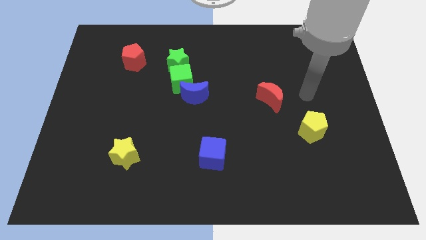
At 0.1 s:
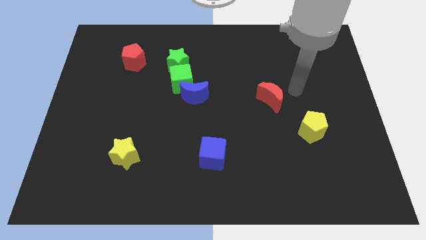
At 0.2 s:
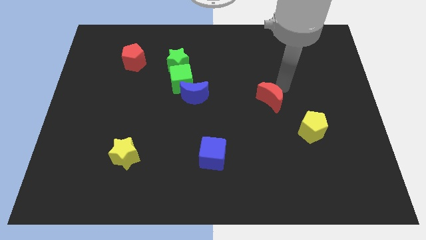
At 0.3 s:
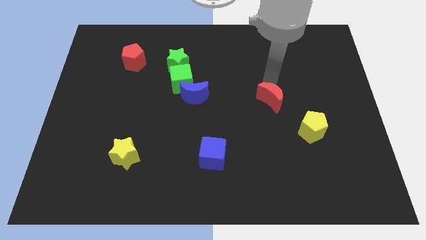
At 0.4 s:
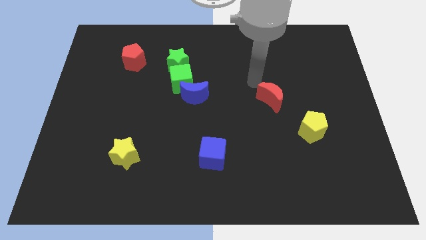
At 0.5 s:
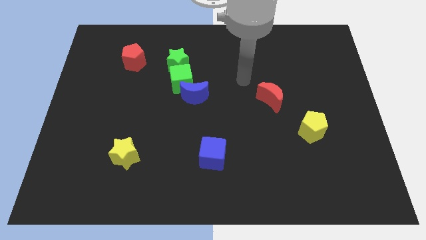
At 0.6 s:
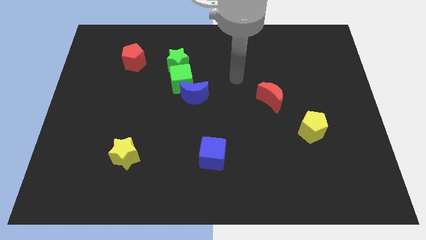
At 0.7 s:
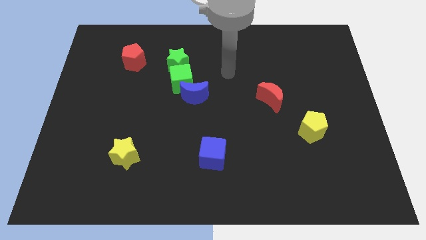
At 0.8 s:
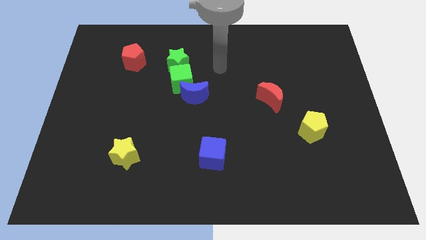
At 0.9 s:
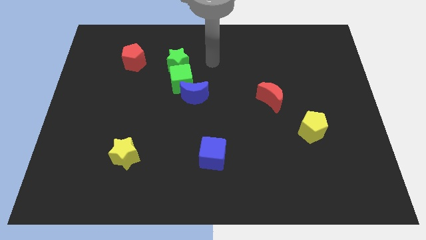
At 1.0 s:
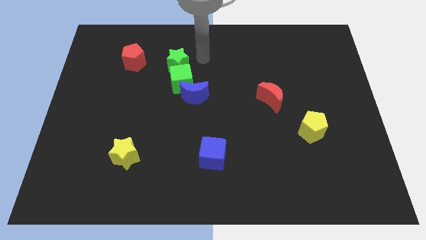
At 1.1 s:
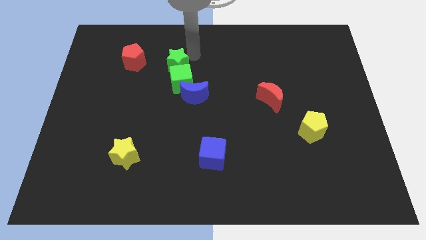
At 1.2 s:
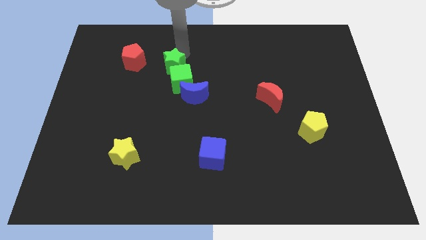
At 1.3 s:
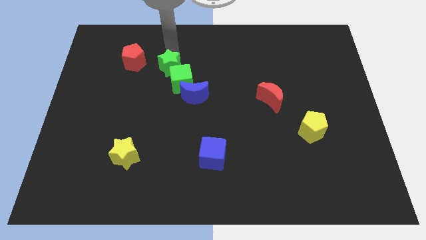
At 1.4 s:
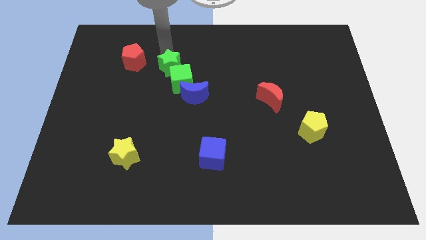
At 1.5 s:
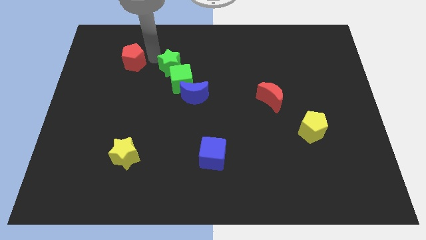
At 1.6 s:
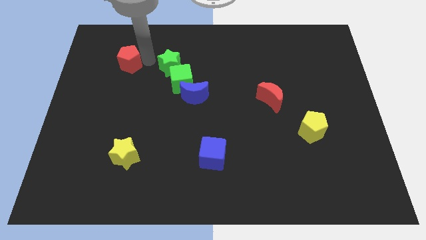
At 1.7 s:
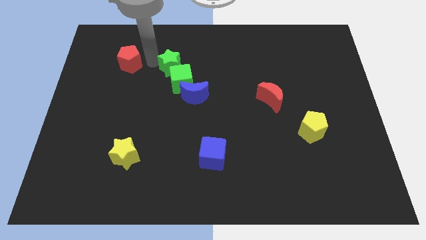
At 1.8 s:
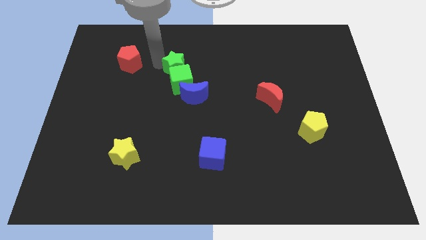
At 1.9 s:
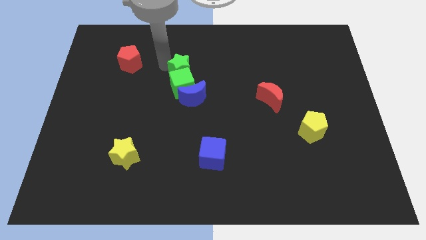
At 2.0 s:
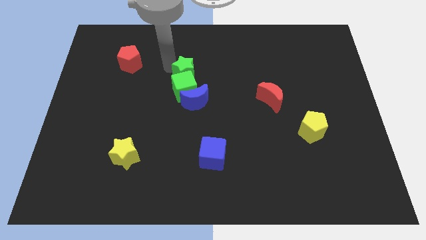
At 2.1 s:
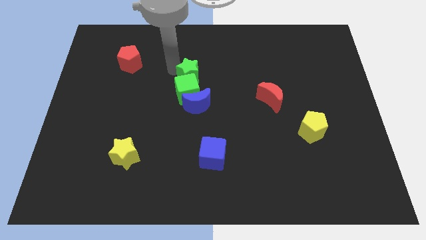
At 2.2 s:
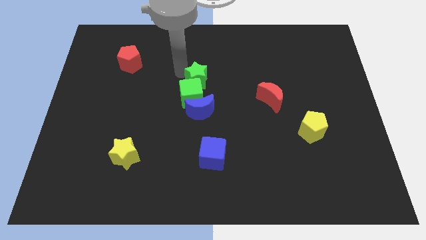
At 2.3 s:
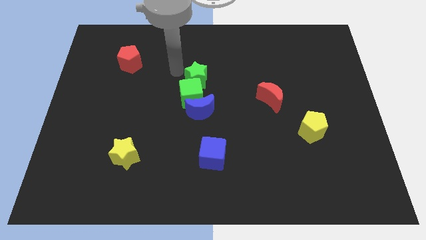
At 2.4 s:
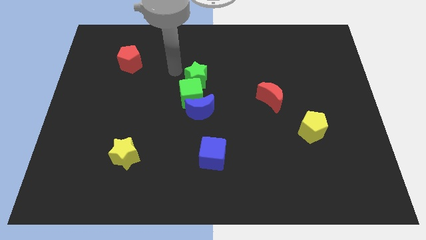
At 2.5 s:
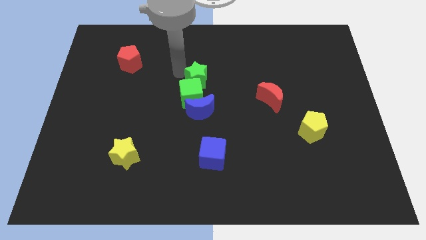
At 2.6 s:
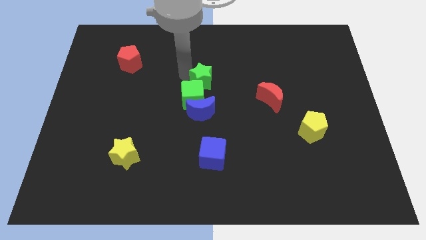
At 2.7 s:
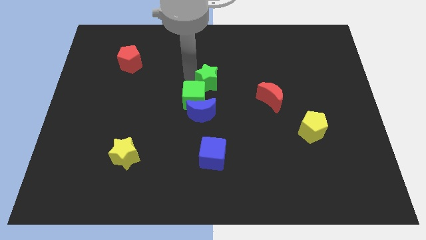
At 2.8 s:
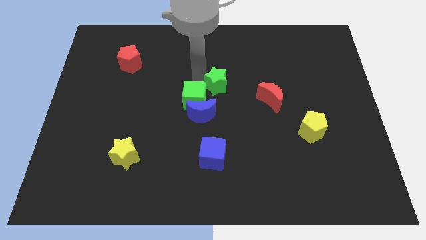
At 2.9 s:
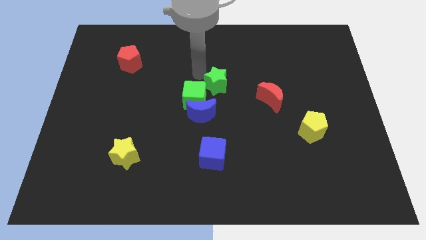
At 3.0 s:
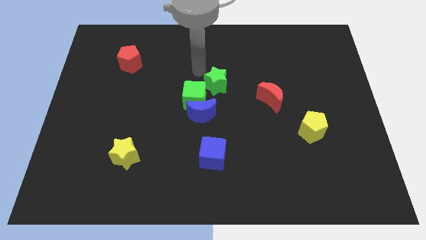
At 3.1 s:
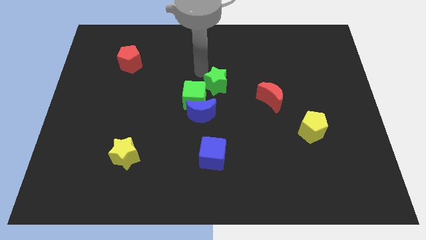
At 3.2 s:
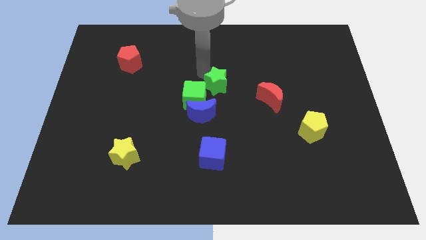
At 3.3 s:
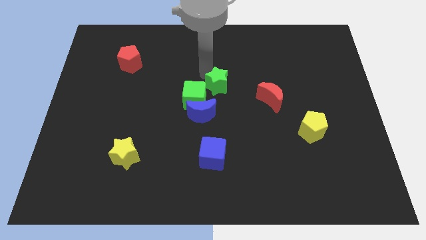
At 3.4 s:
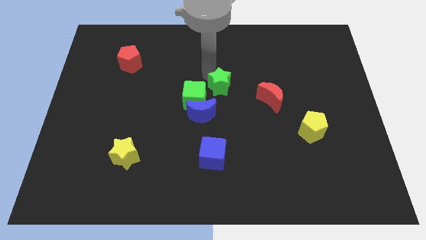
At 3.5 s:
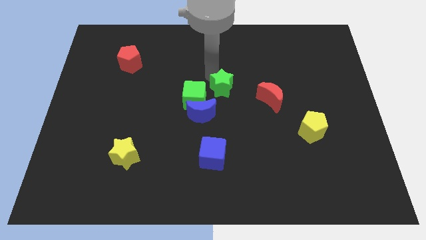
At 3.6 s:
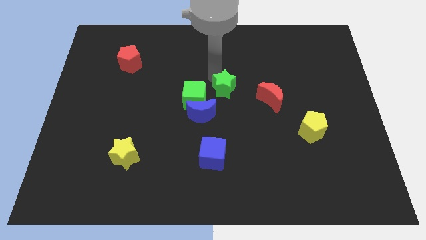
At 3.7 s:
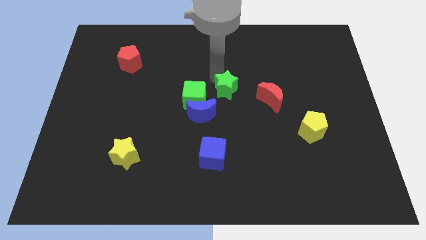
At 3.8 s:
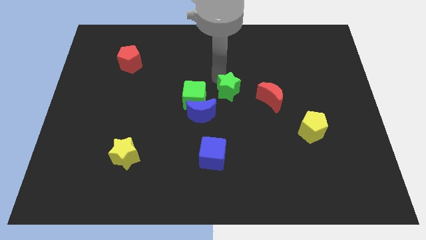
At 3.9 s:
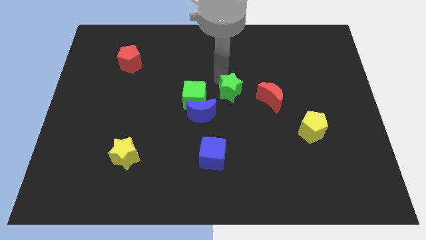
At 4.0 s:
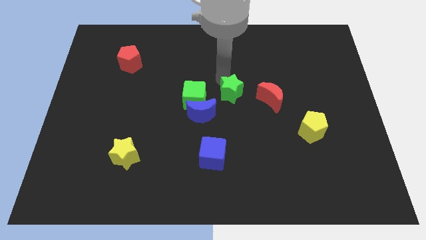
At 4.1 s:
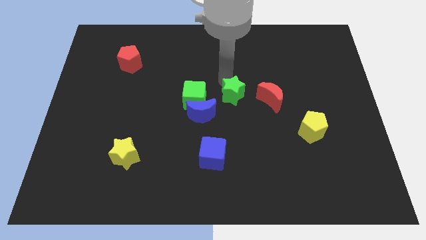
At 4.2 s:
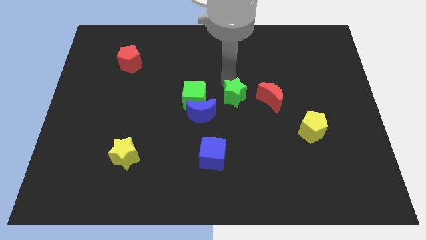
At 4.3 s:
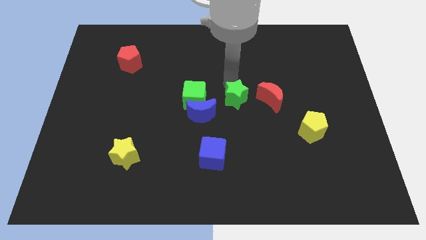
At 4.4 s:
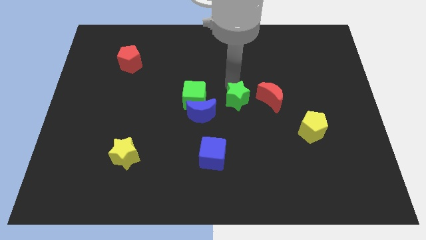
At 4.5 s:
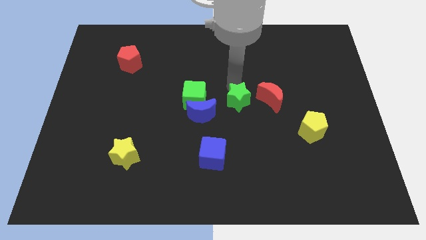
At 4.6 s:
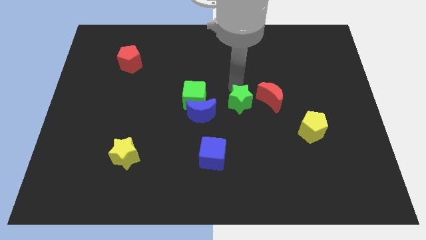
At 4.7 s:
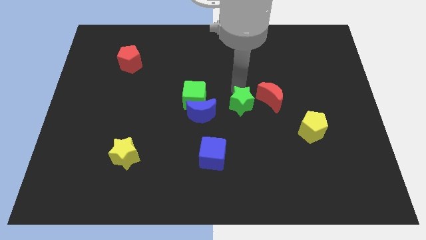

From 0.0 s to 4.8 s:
move the green star diagonally downwards and right

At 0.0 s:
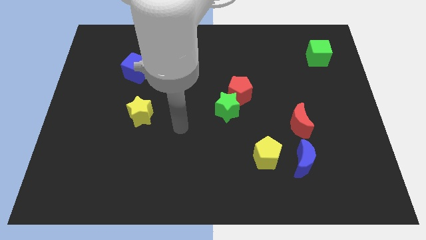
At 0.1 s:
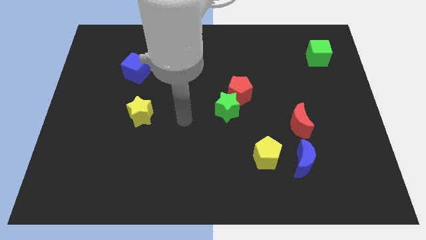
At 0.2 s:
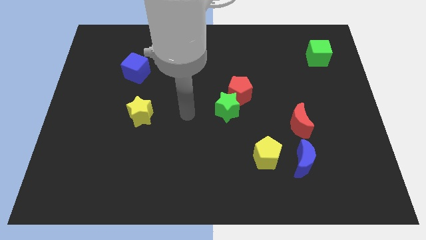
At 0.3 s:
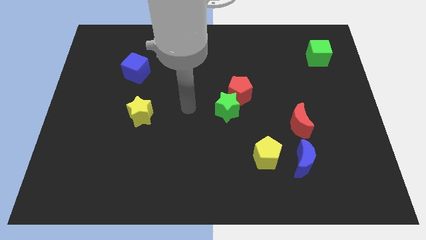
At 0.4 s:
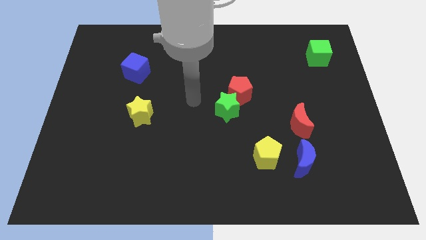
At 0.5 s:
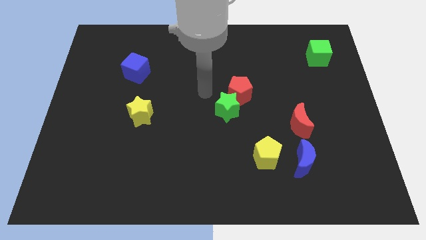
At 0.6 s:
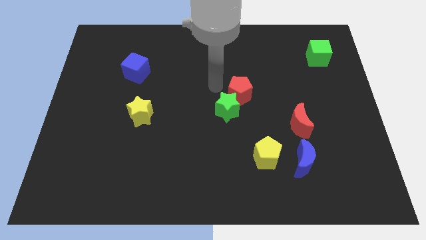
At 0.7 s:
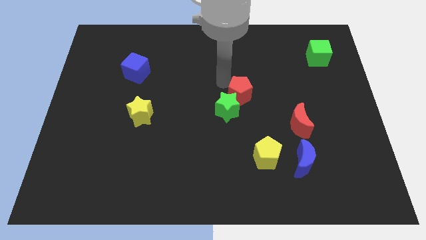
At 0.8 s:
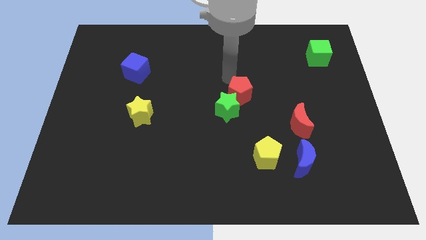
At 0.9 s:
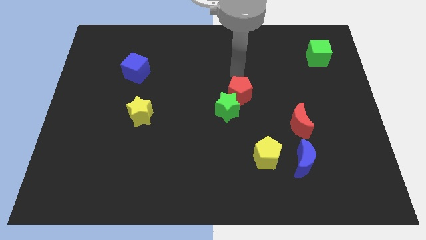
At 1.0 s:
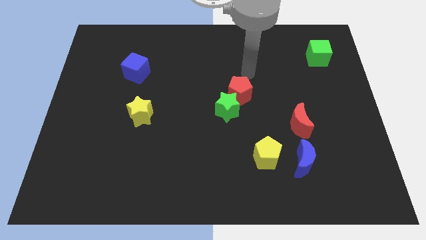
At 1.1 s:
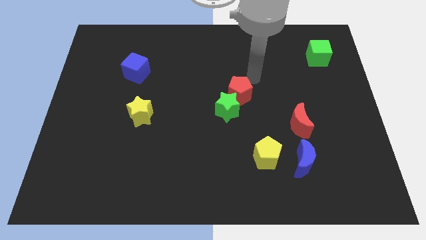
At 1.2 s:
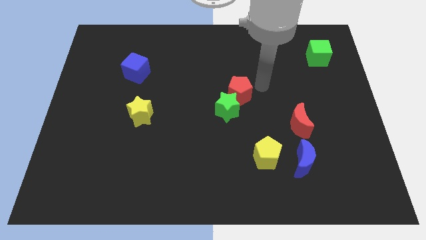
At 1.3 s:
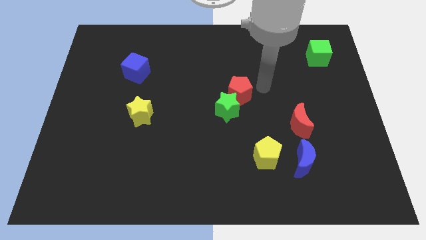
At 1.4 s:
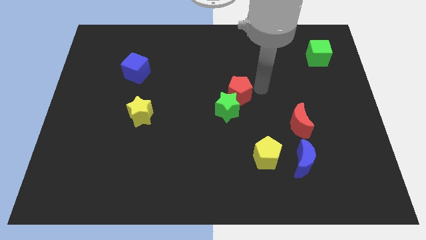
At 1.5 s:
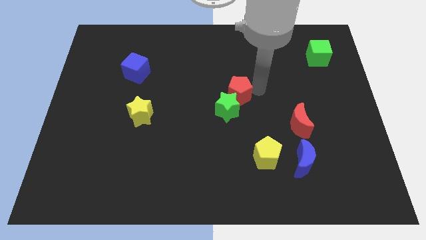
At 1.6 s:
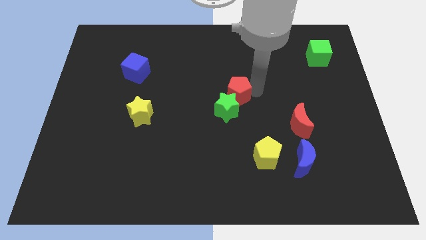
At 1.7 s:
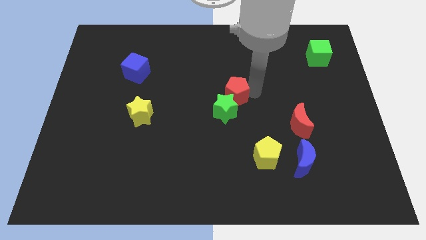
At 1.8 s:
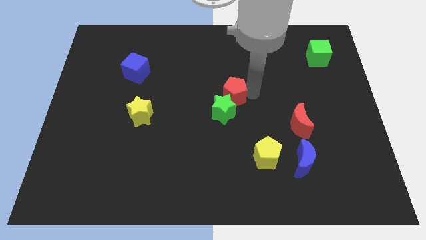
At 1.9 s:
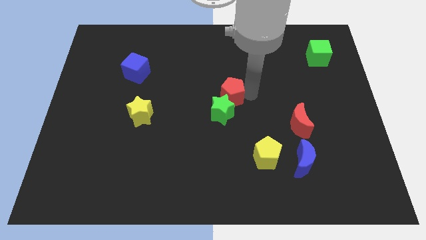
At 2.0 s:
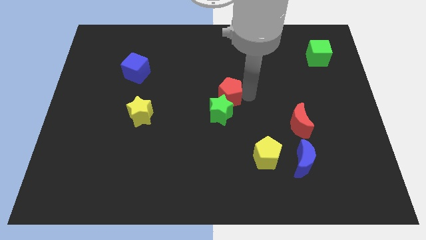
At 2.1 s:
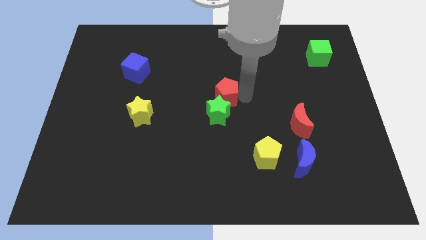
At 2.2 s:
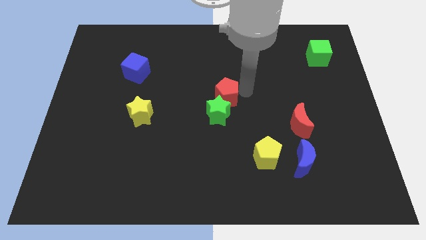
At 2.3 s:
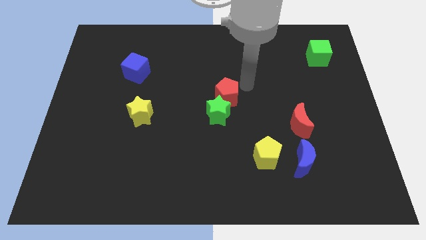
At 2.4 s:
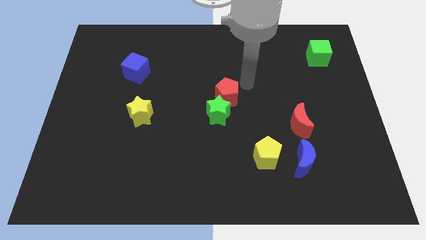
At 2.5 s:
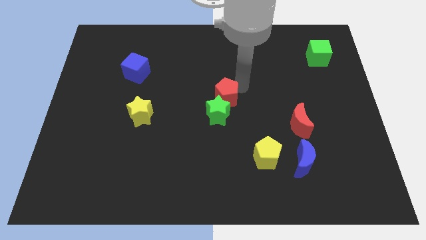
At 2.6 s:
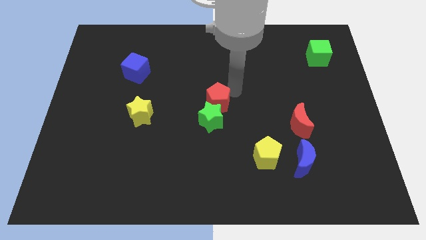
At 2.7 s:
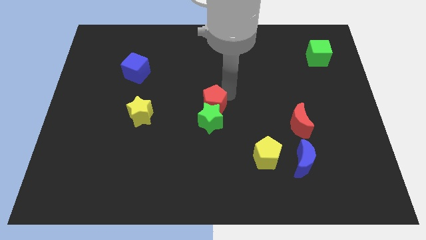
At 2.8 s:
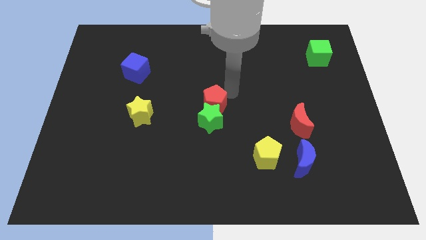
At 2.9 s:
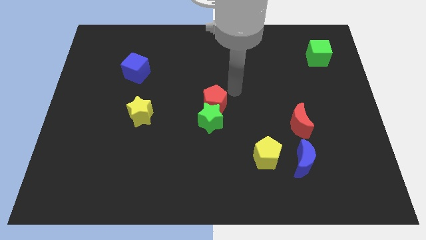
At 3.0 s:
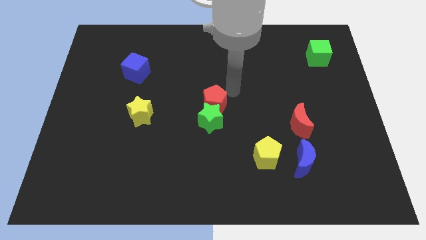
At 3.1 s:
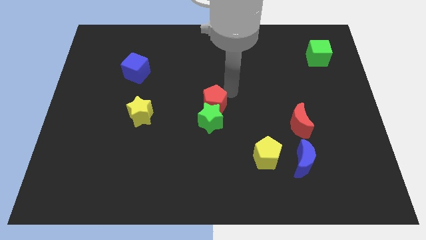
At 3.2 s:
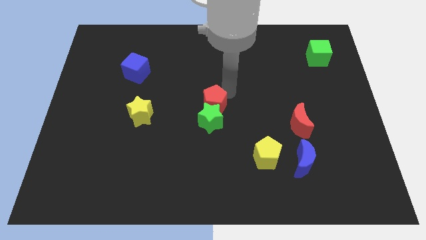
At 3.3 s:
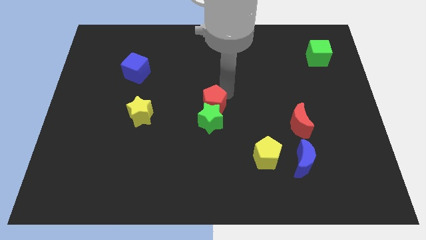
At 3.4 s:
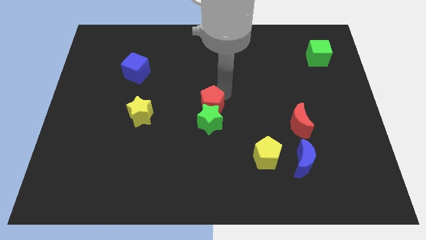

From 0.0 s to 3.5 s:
move the red pentagon a little diagonally downwards and left

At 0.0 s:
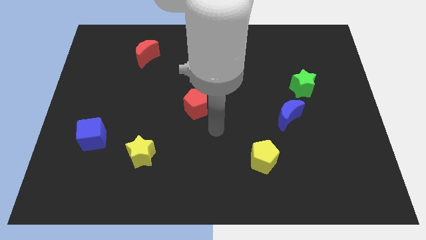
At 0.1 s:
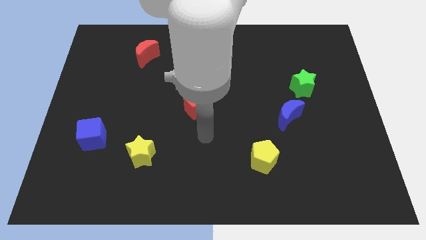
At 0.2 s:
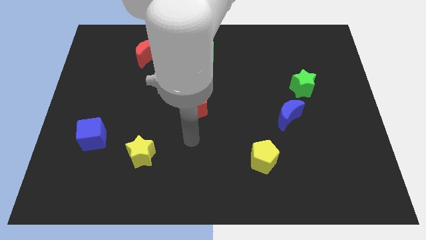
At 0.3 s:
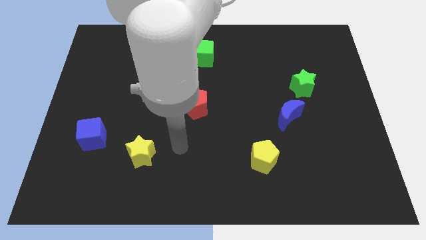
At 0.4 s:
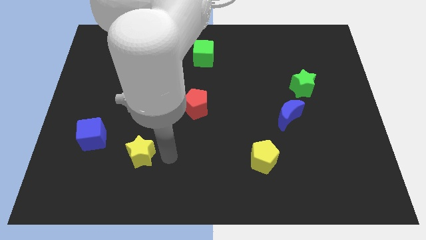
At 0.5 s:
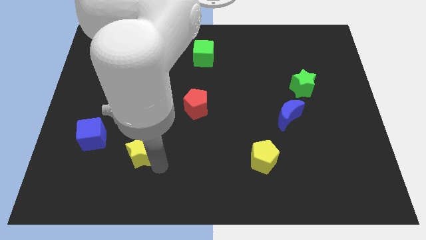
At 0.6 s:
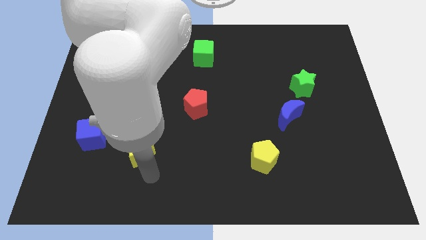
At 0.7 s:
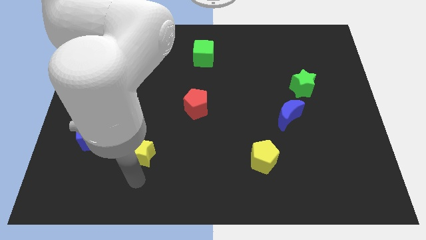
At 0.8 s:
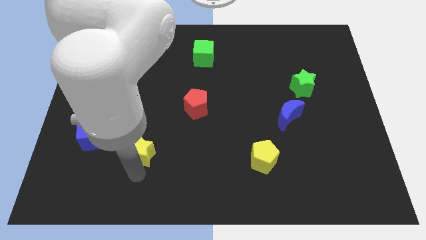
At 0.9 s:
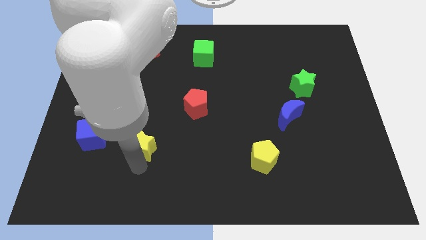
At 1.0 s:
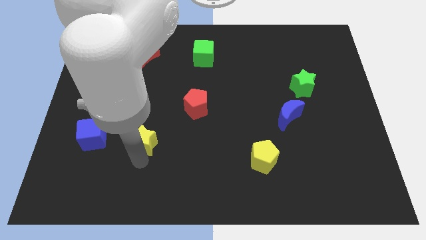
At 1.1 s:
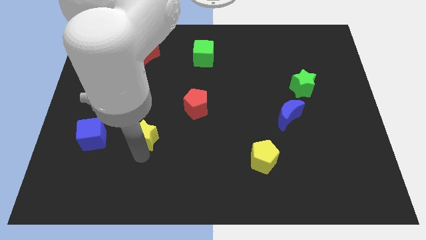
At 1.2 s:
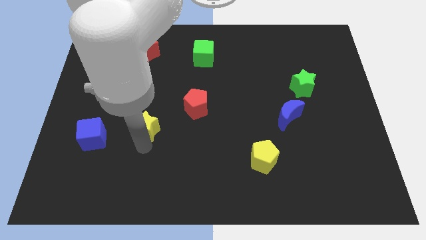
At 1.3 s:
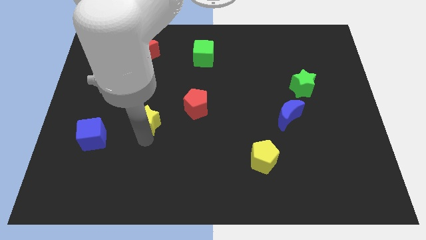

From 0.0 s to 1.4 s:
slightly push the yellow star upwards
